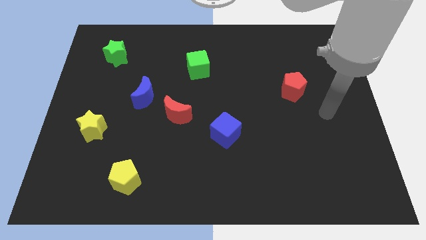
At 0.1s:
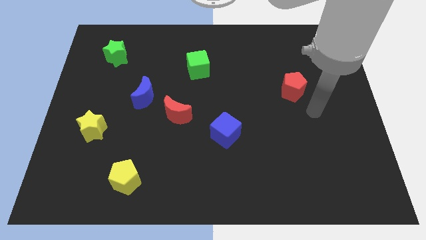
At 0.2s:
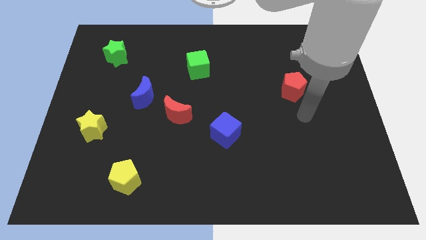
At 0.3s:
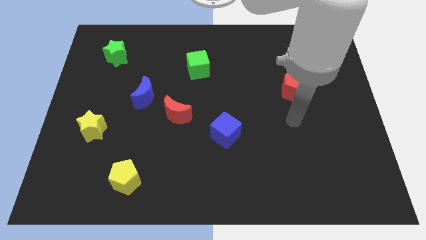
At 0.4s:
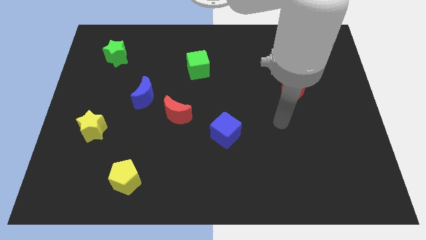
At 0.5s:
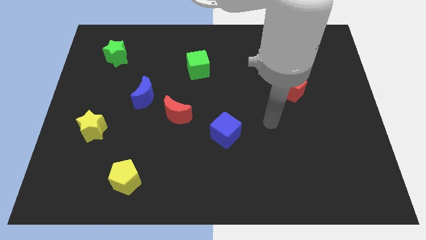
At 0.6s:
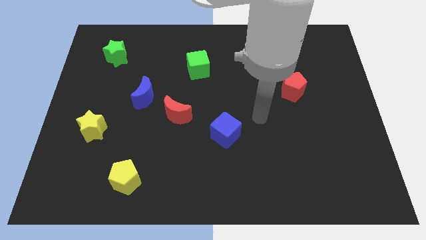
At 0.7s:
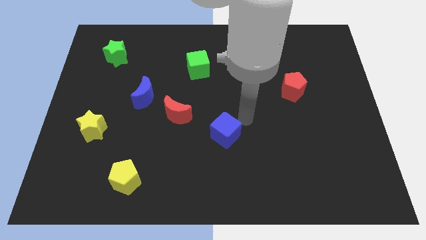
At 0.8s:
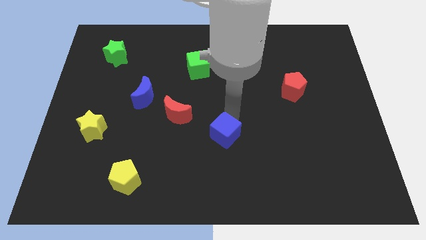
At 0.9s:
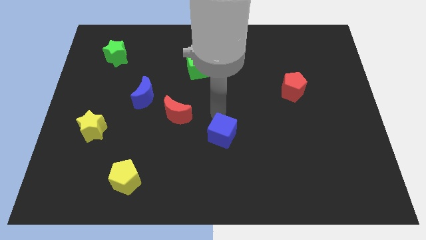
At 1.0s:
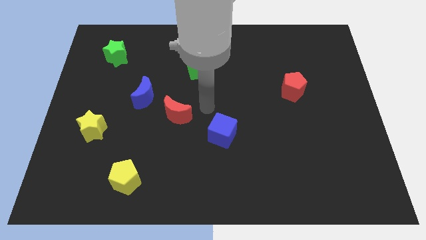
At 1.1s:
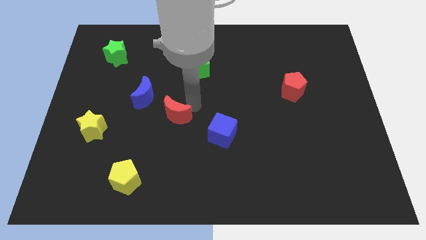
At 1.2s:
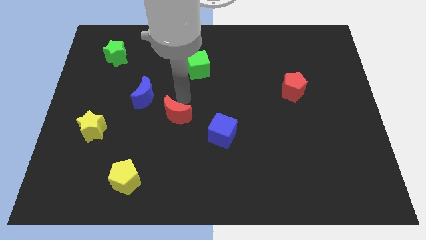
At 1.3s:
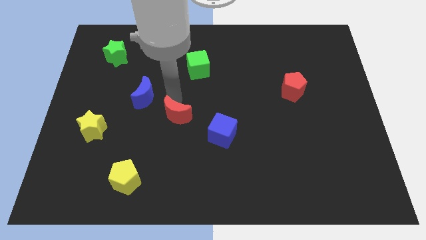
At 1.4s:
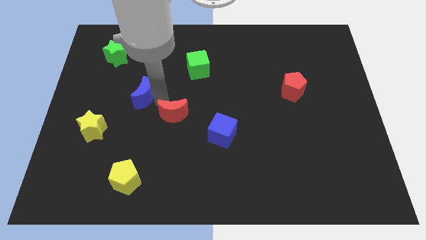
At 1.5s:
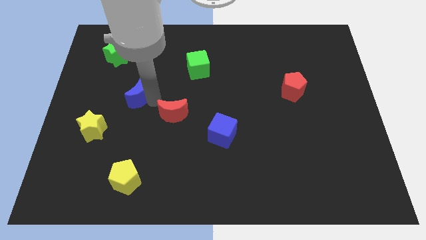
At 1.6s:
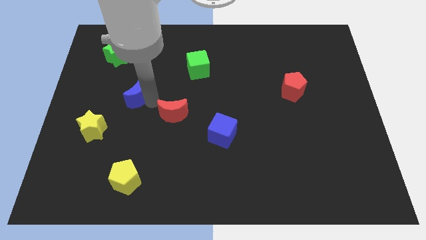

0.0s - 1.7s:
move the red moon away from the blue moon

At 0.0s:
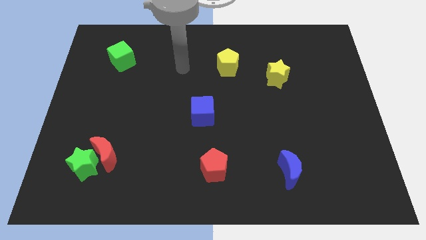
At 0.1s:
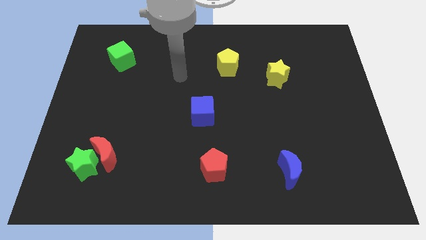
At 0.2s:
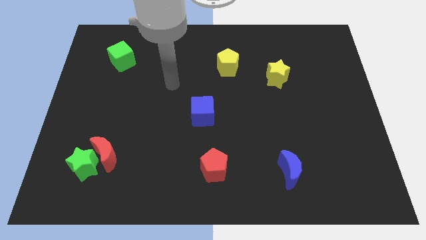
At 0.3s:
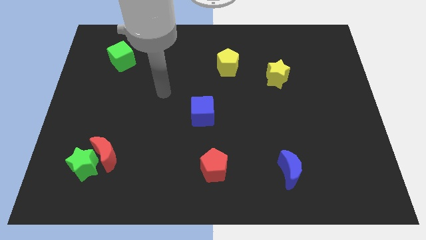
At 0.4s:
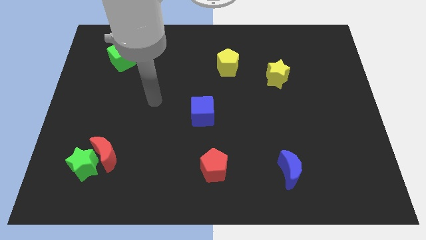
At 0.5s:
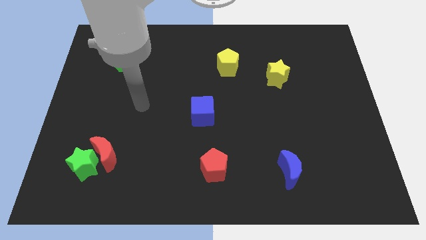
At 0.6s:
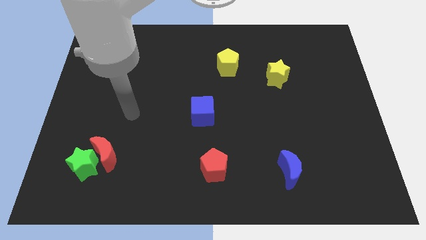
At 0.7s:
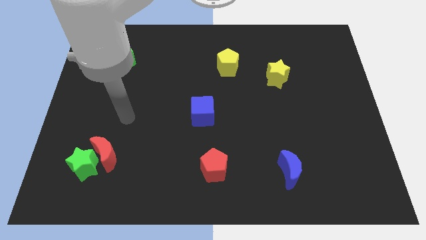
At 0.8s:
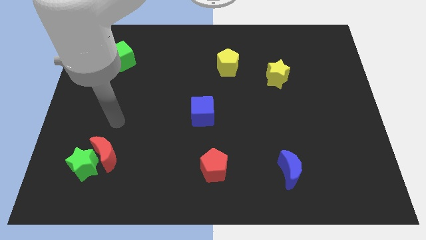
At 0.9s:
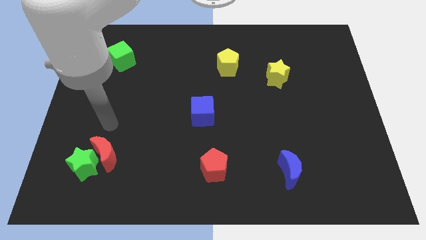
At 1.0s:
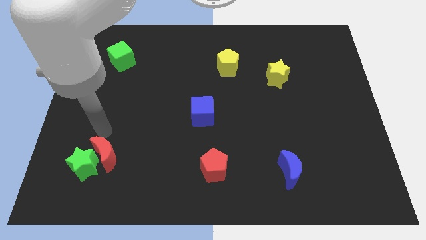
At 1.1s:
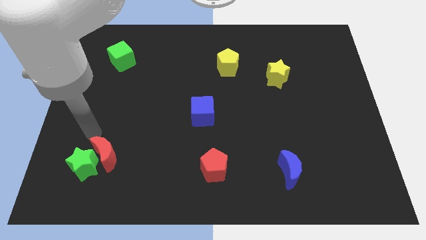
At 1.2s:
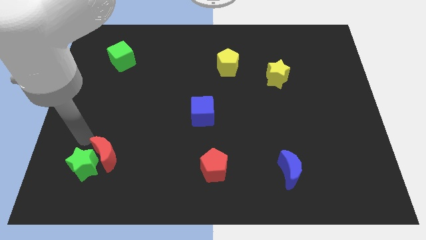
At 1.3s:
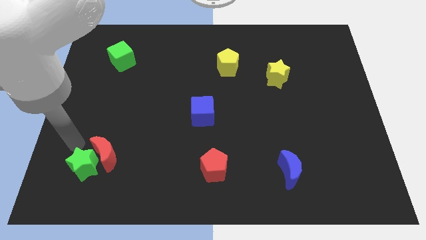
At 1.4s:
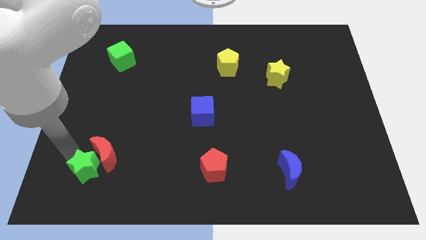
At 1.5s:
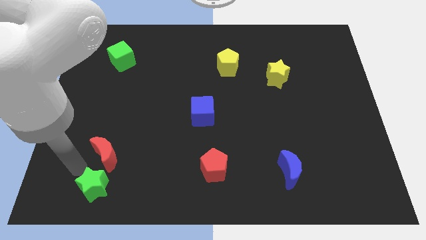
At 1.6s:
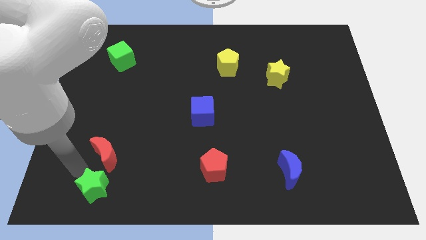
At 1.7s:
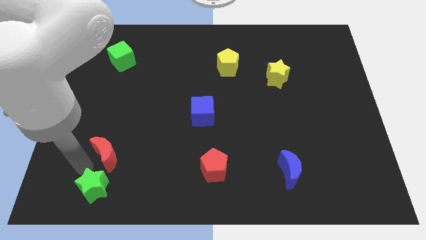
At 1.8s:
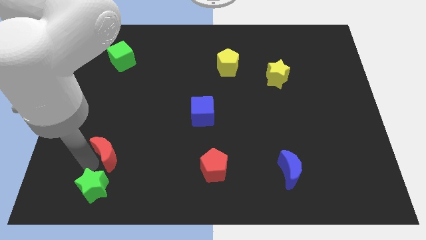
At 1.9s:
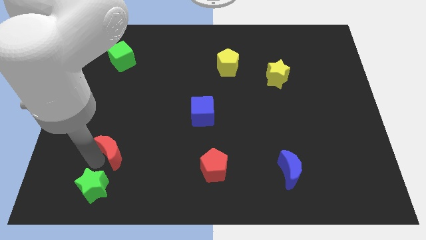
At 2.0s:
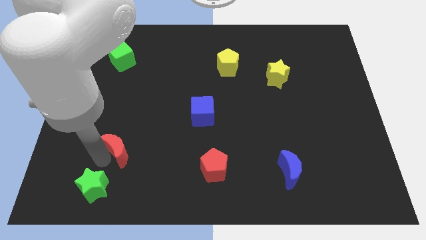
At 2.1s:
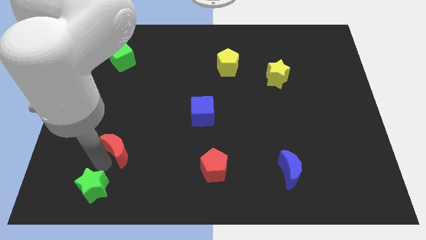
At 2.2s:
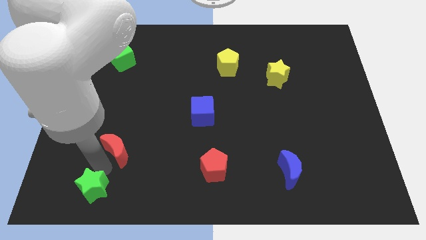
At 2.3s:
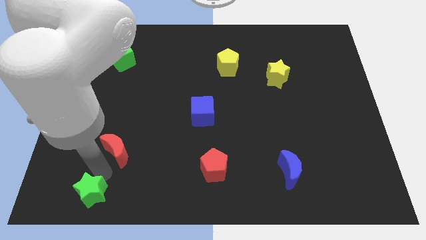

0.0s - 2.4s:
move the red moon away from the green star

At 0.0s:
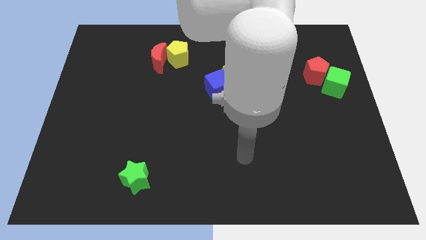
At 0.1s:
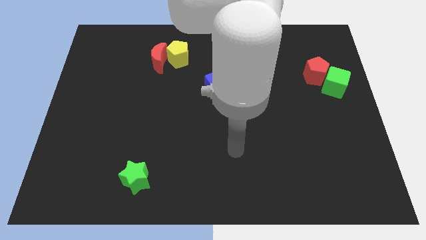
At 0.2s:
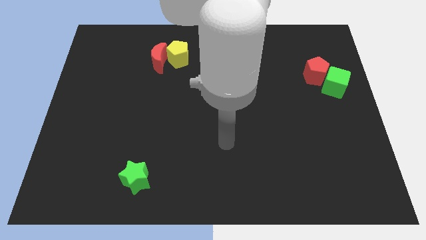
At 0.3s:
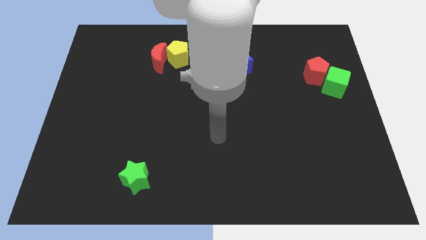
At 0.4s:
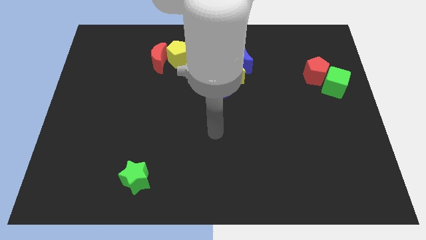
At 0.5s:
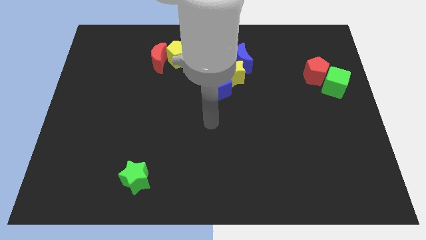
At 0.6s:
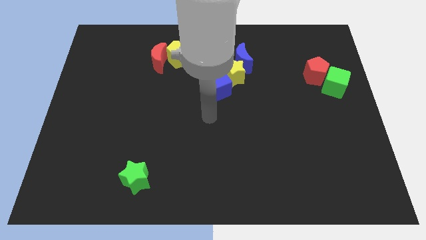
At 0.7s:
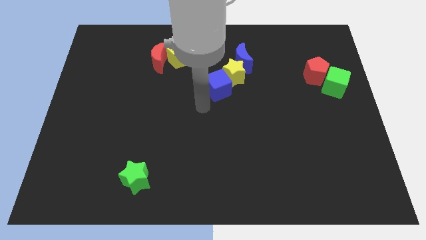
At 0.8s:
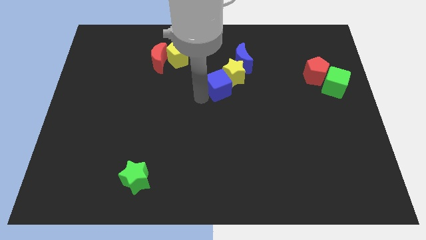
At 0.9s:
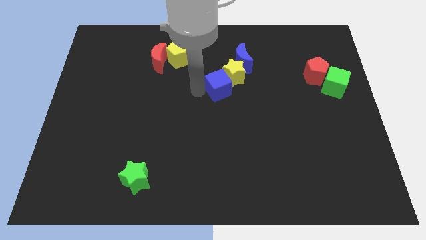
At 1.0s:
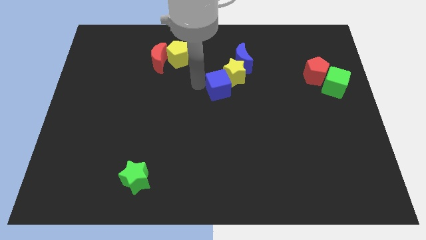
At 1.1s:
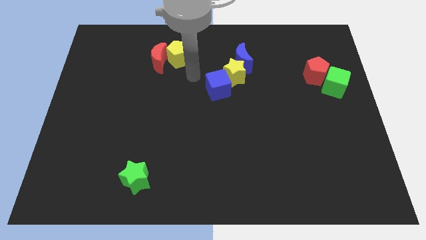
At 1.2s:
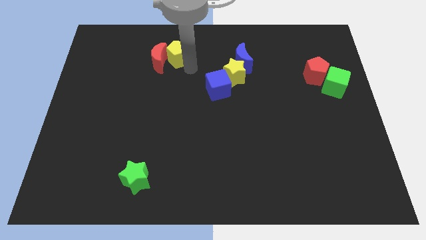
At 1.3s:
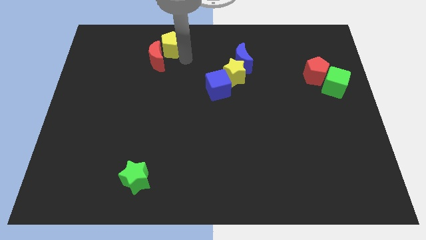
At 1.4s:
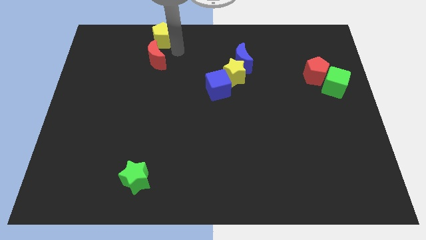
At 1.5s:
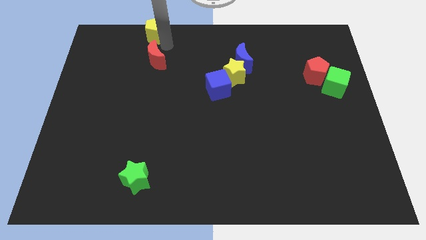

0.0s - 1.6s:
separate the red moon from the yellow pentagon

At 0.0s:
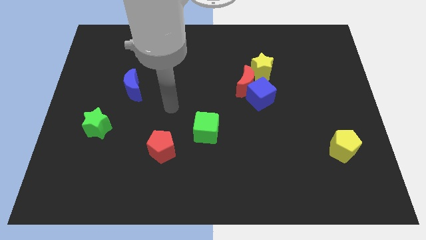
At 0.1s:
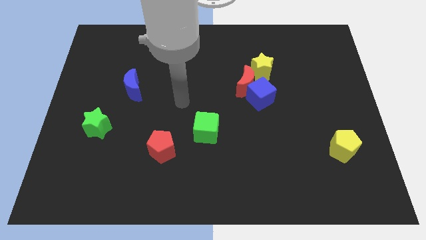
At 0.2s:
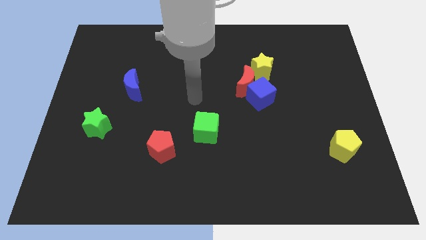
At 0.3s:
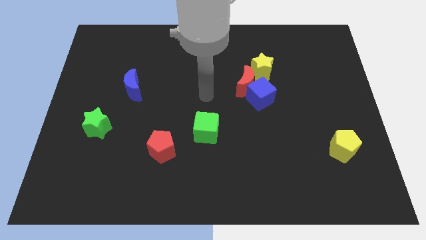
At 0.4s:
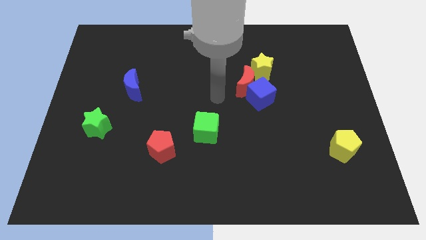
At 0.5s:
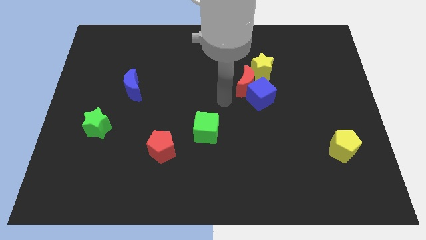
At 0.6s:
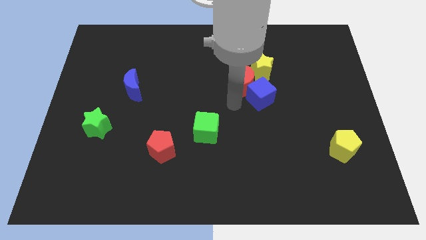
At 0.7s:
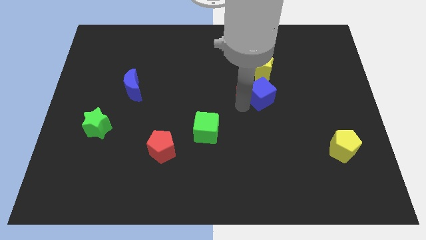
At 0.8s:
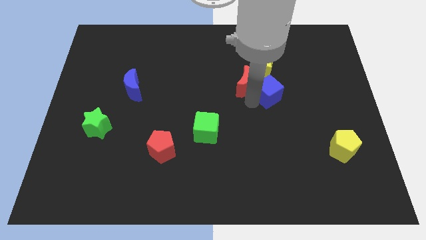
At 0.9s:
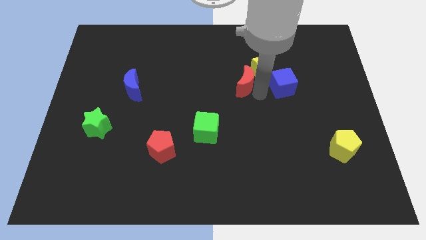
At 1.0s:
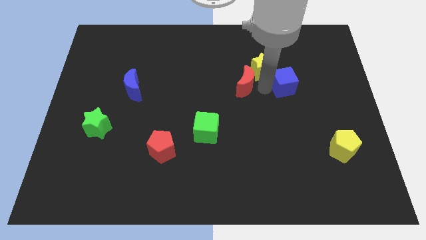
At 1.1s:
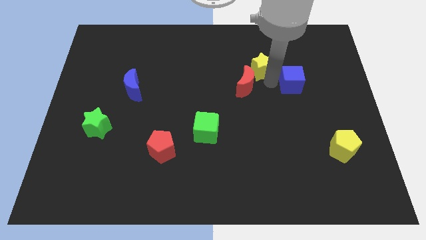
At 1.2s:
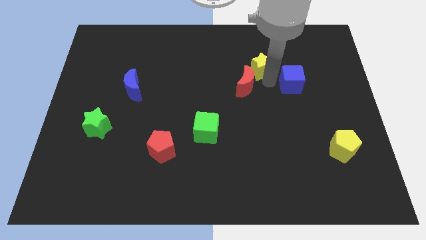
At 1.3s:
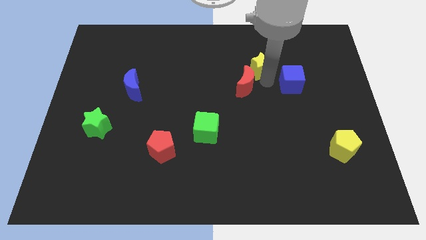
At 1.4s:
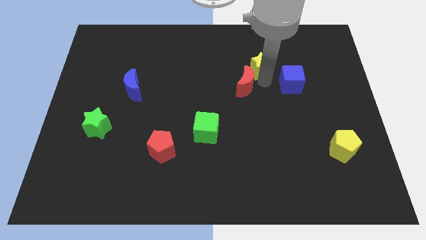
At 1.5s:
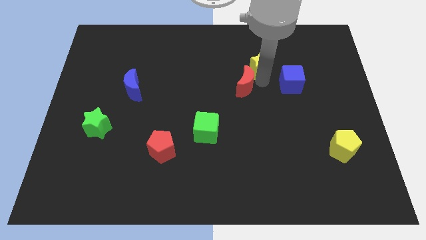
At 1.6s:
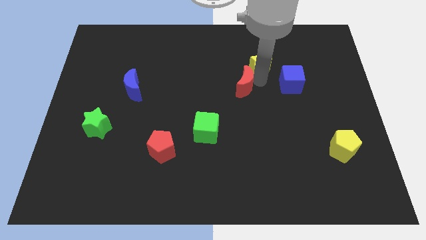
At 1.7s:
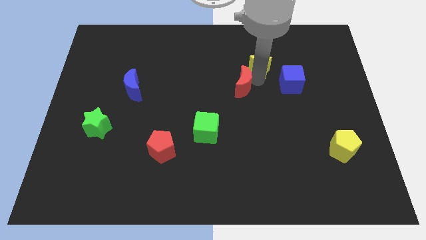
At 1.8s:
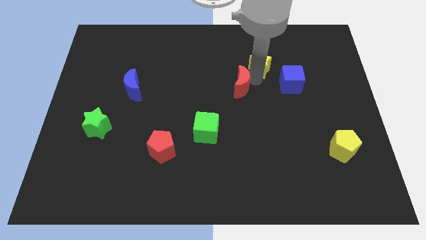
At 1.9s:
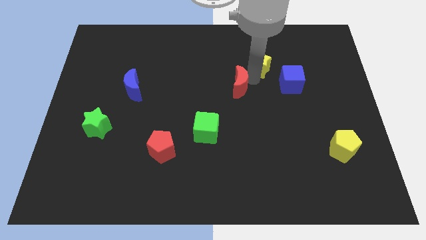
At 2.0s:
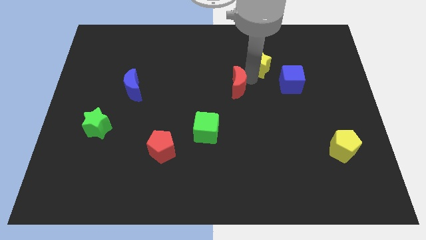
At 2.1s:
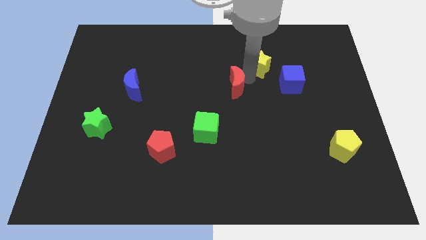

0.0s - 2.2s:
move the red moon away from the blue cube and yellow star

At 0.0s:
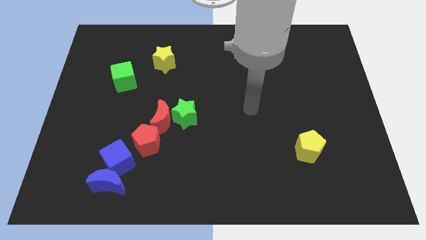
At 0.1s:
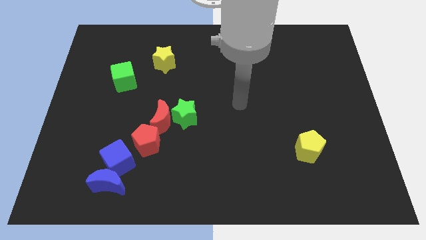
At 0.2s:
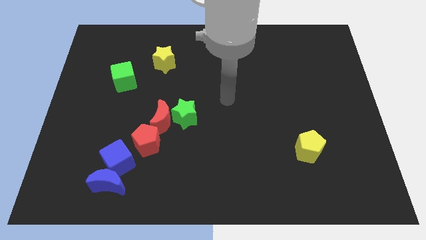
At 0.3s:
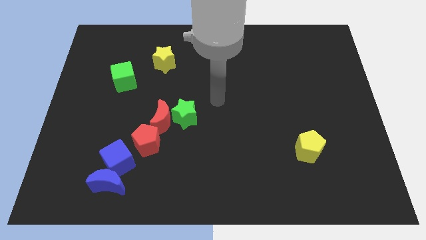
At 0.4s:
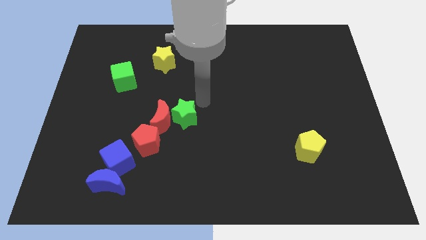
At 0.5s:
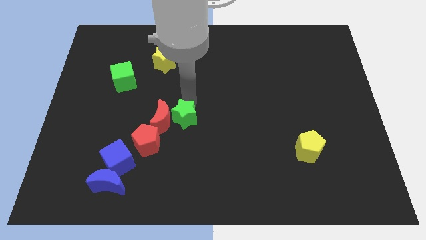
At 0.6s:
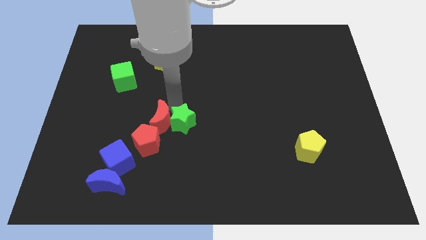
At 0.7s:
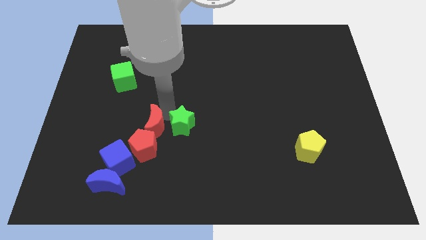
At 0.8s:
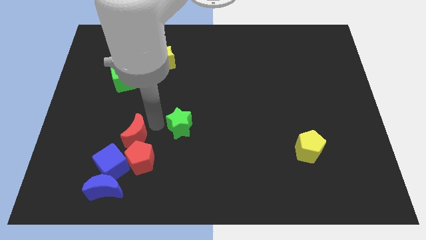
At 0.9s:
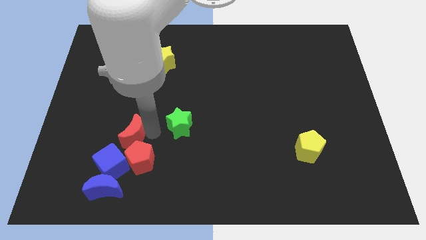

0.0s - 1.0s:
move the green star away from the red moon

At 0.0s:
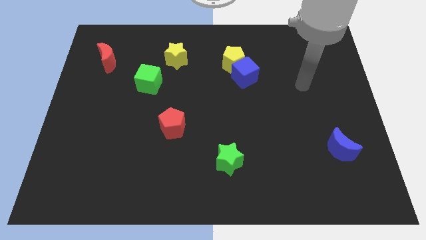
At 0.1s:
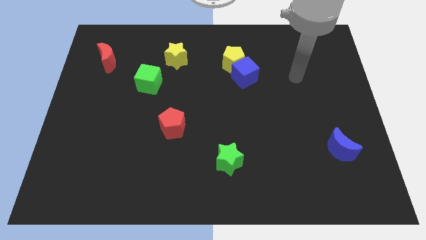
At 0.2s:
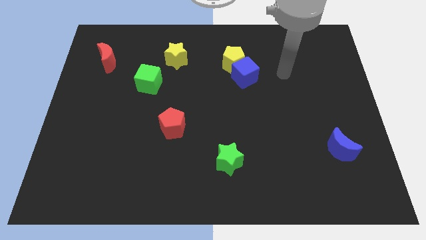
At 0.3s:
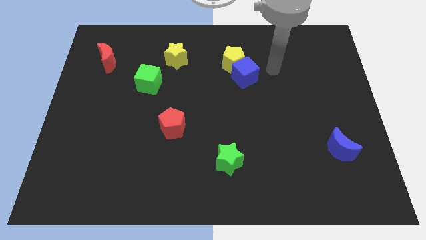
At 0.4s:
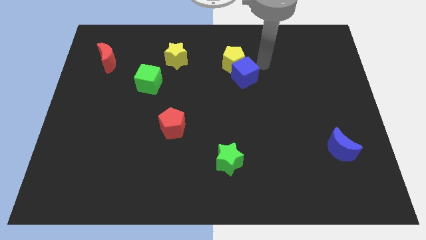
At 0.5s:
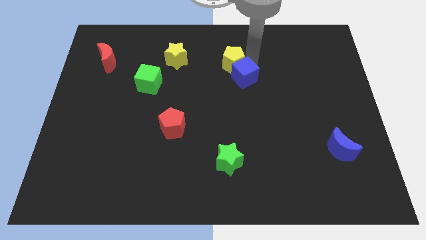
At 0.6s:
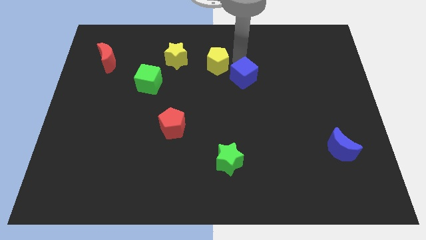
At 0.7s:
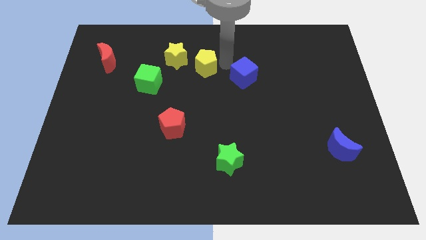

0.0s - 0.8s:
pull the blue cube apart from the yellow pentagon
